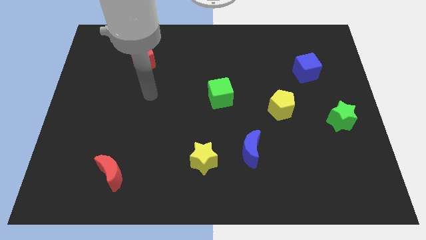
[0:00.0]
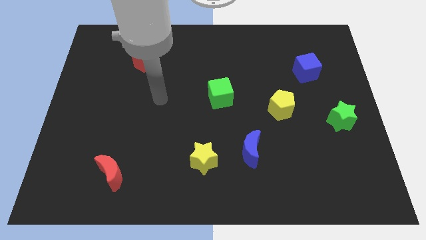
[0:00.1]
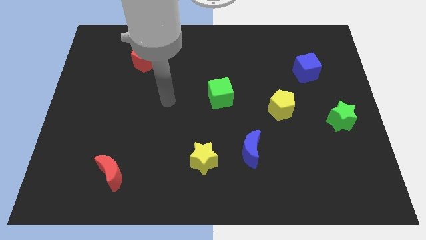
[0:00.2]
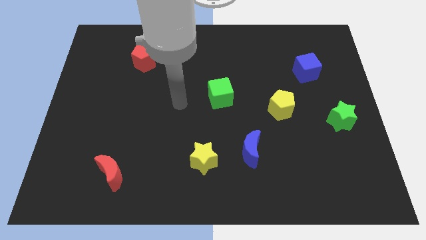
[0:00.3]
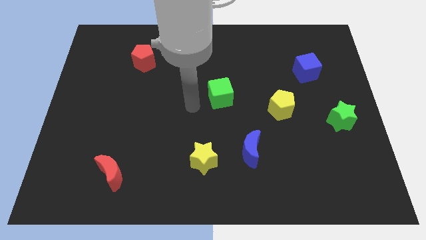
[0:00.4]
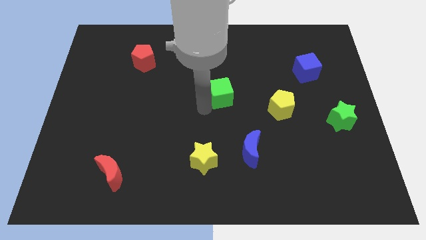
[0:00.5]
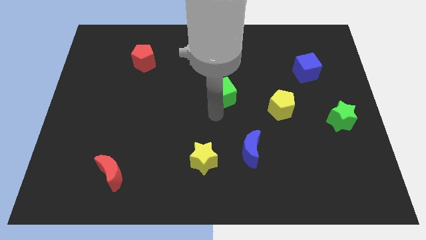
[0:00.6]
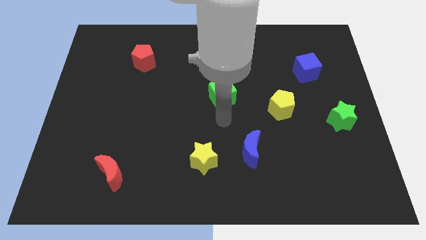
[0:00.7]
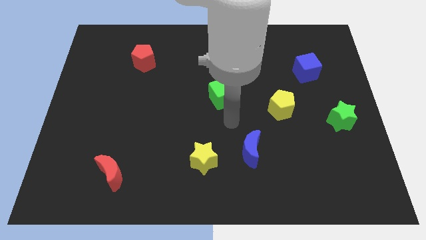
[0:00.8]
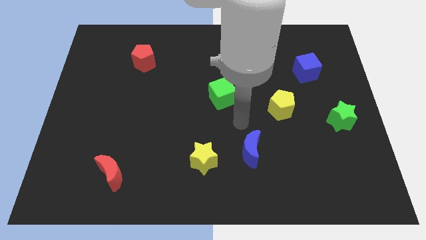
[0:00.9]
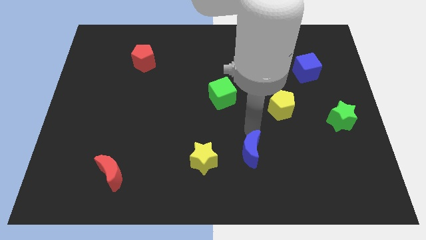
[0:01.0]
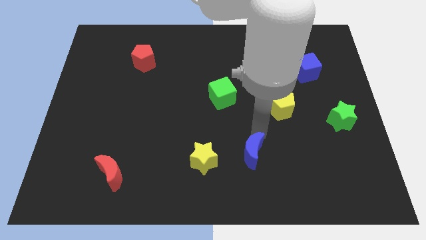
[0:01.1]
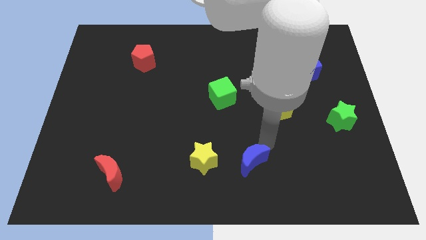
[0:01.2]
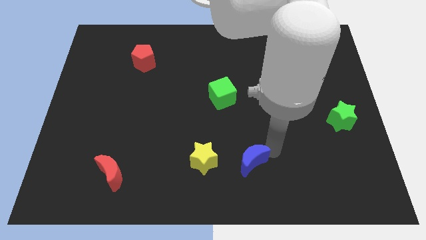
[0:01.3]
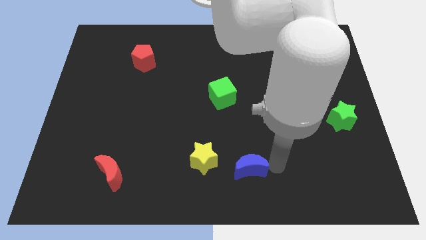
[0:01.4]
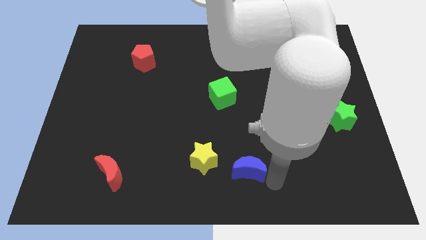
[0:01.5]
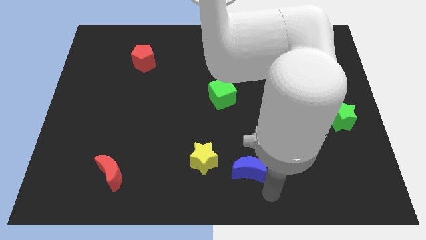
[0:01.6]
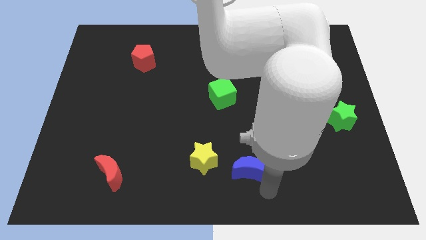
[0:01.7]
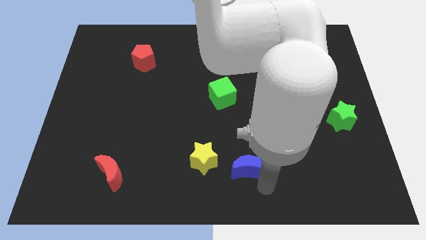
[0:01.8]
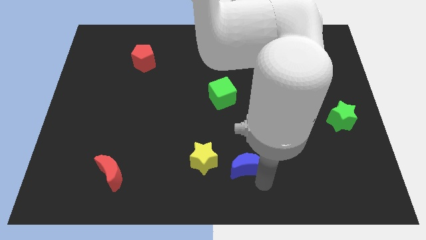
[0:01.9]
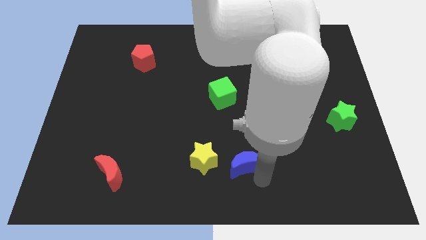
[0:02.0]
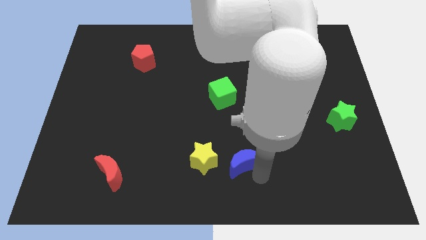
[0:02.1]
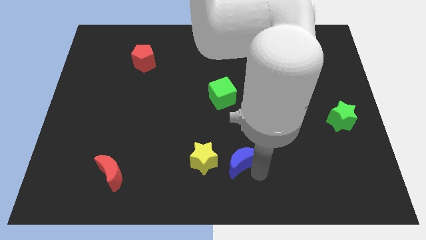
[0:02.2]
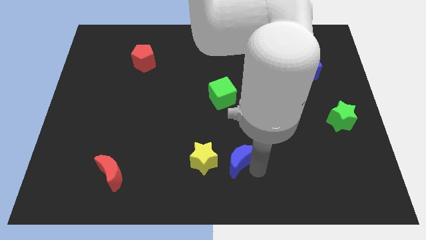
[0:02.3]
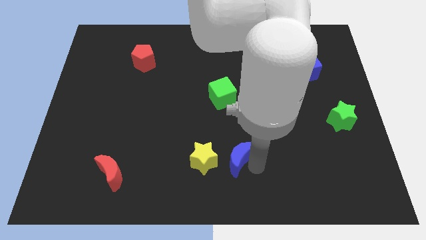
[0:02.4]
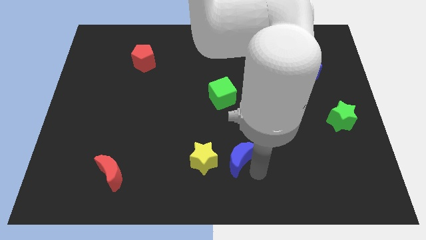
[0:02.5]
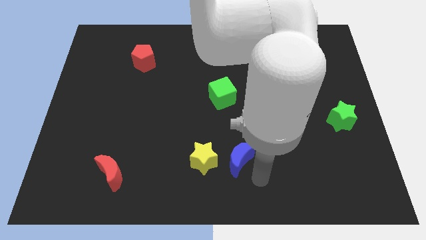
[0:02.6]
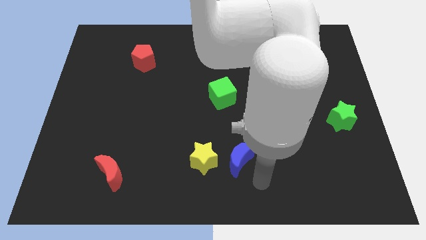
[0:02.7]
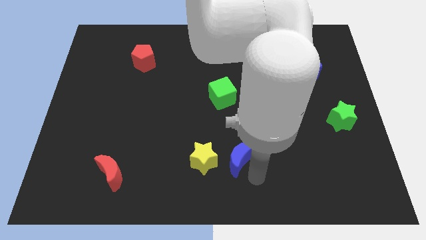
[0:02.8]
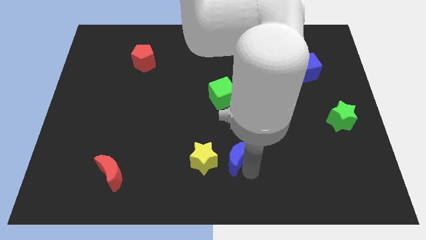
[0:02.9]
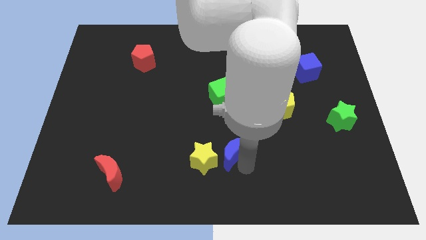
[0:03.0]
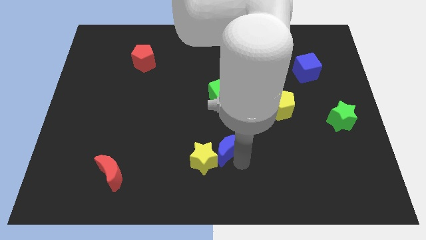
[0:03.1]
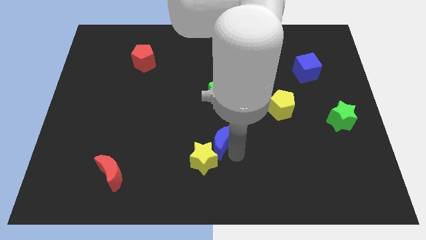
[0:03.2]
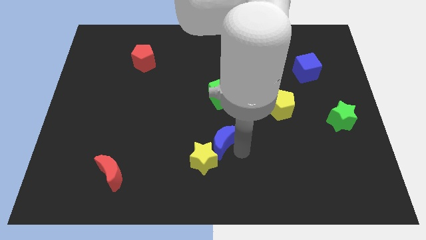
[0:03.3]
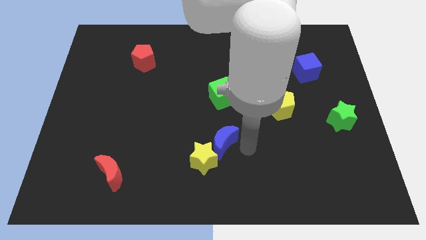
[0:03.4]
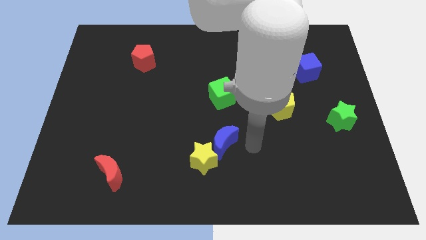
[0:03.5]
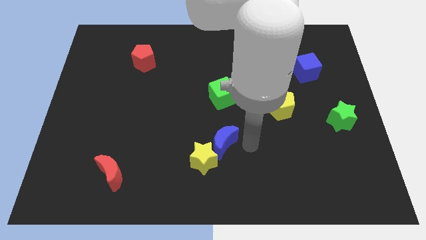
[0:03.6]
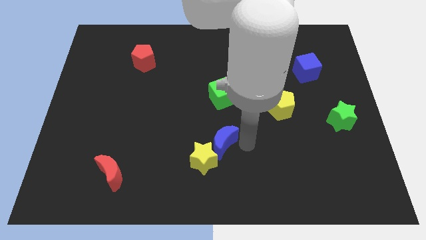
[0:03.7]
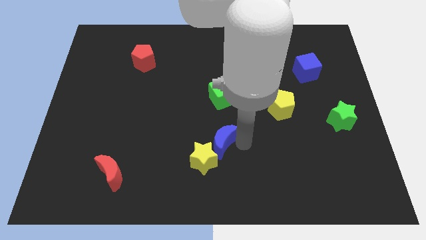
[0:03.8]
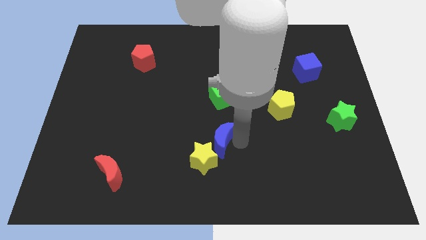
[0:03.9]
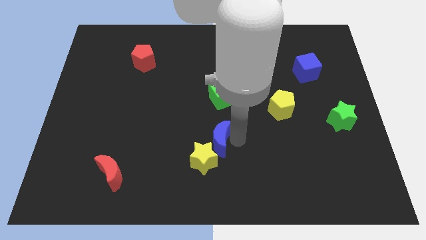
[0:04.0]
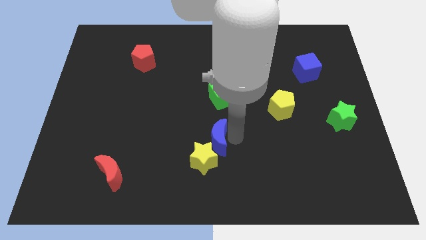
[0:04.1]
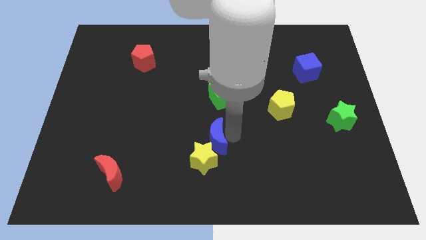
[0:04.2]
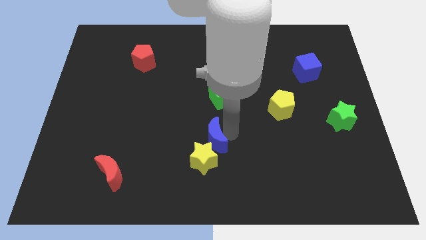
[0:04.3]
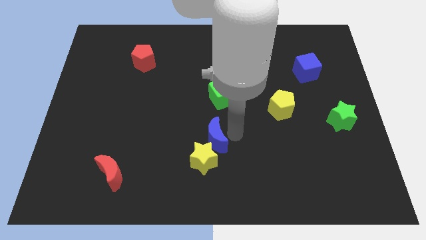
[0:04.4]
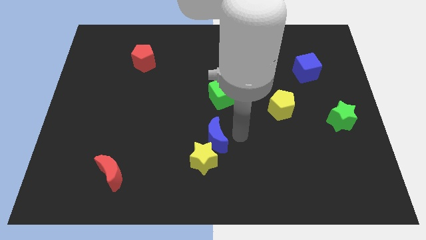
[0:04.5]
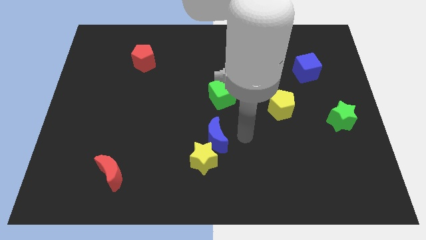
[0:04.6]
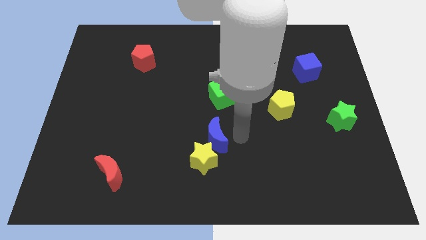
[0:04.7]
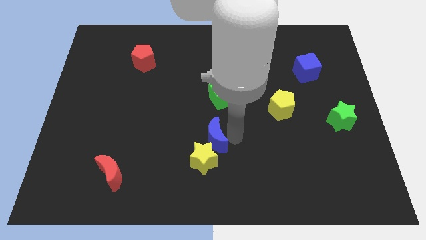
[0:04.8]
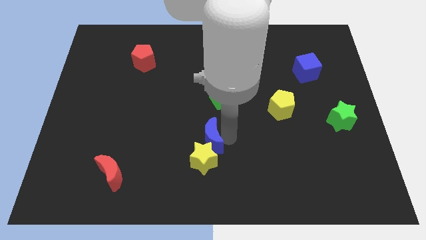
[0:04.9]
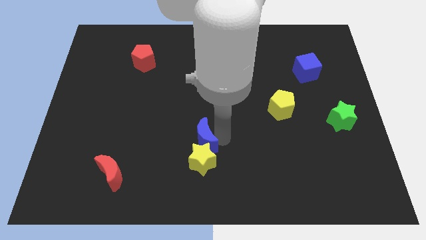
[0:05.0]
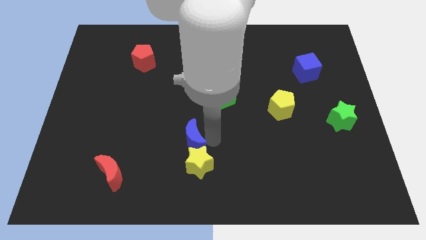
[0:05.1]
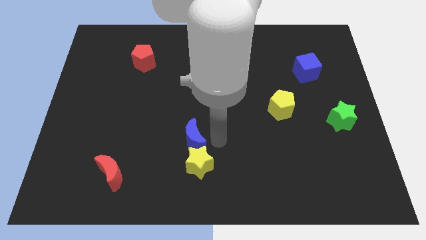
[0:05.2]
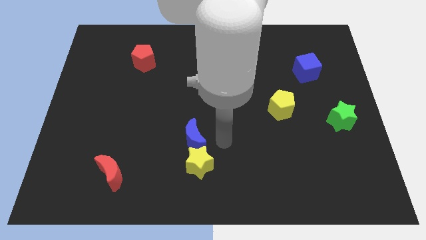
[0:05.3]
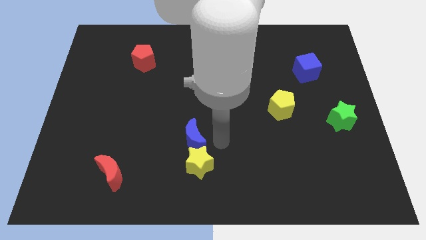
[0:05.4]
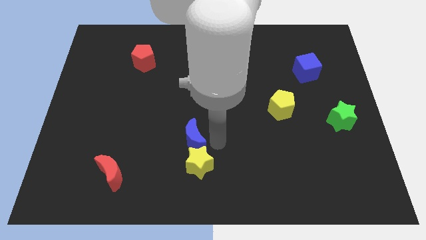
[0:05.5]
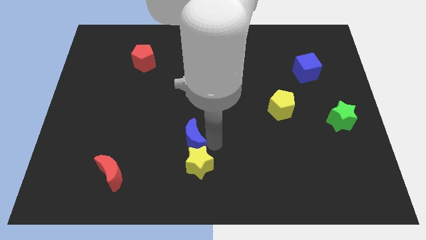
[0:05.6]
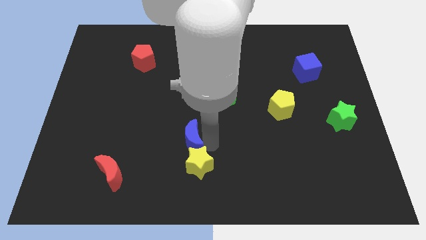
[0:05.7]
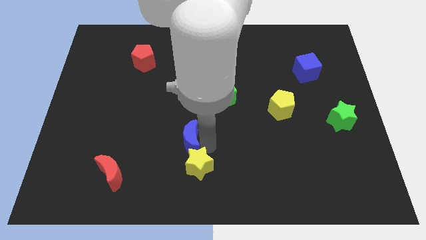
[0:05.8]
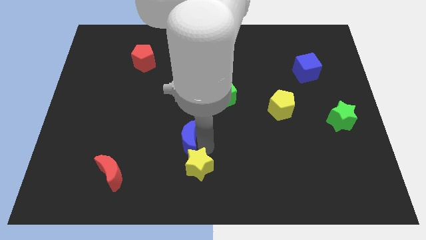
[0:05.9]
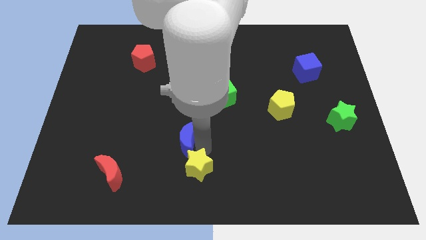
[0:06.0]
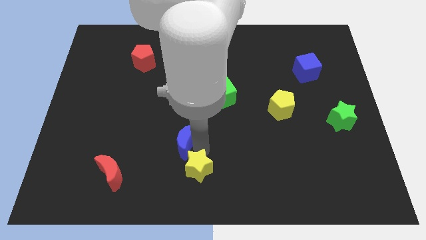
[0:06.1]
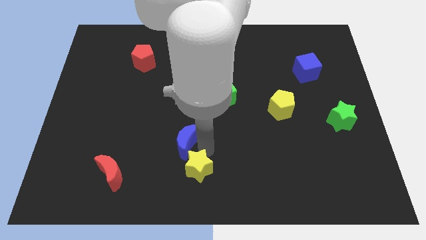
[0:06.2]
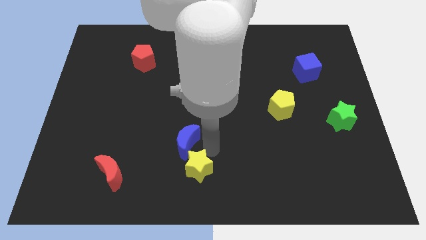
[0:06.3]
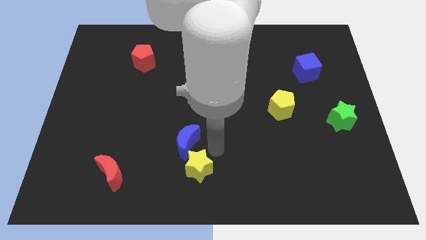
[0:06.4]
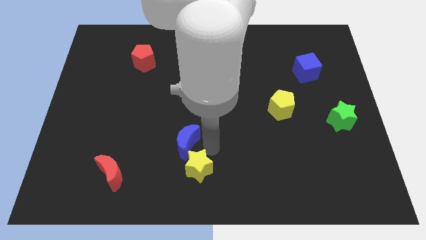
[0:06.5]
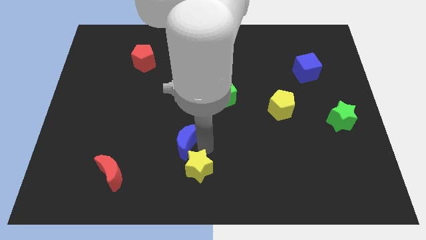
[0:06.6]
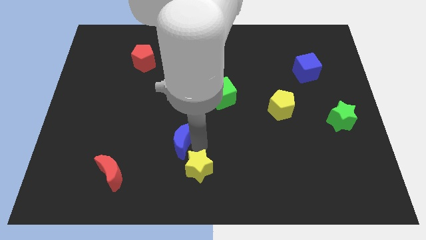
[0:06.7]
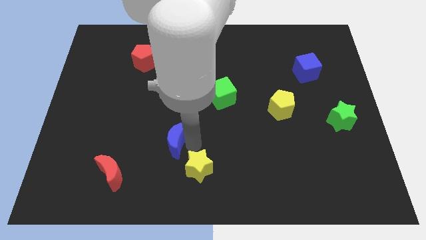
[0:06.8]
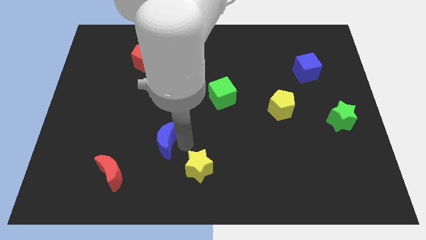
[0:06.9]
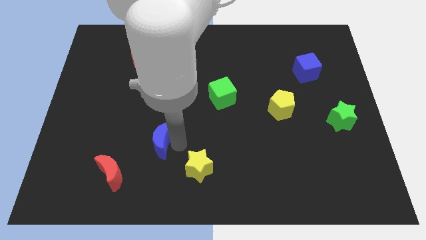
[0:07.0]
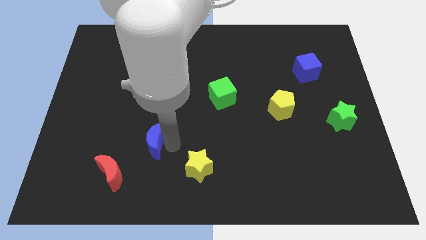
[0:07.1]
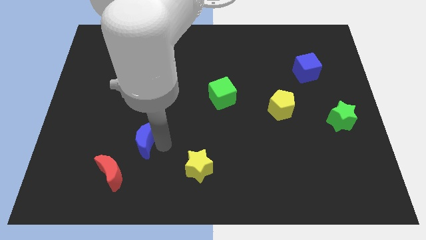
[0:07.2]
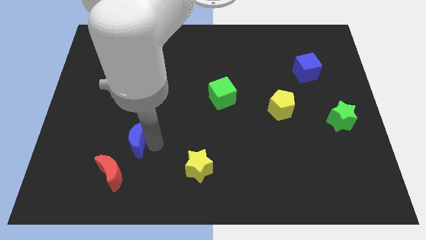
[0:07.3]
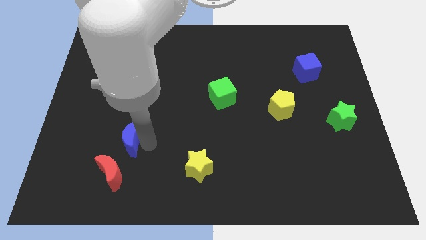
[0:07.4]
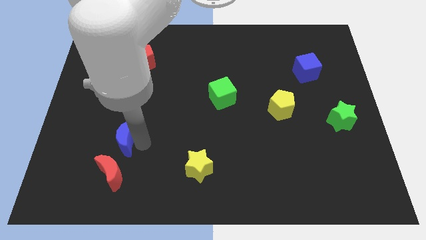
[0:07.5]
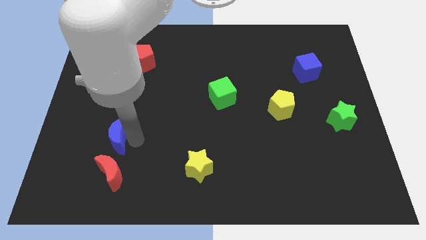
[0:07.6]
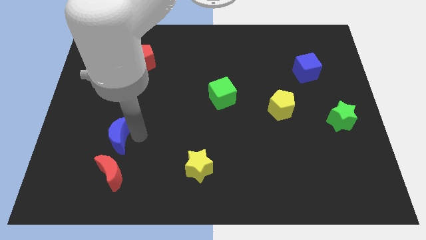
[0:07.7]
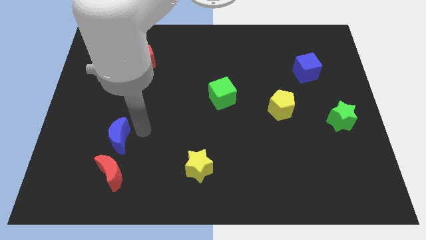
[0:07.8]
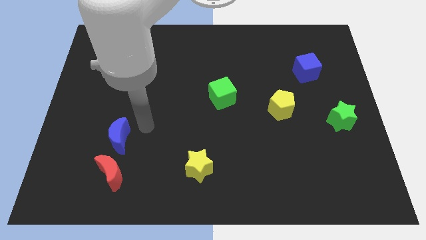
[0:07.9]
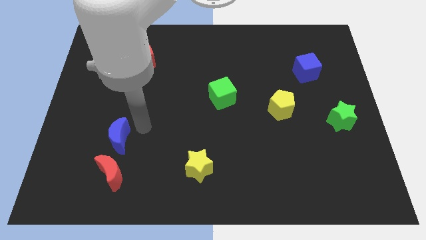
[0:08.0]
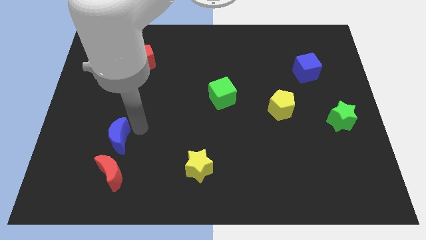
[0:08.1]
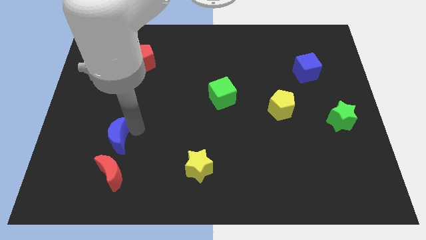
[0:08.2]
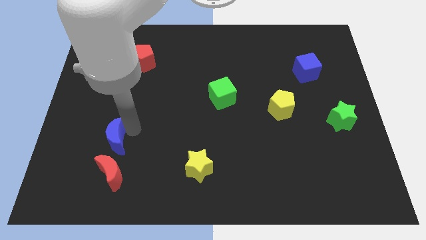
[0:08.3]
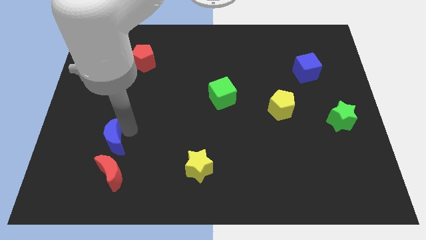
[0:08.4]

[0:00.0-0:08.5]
put the blue moon diagonally up and to the left of the red moon
